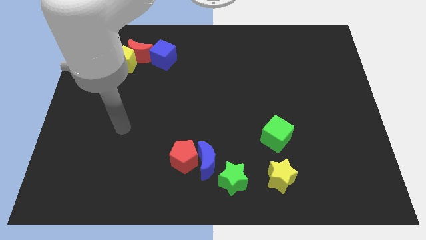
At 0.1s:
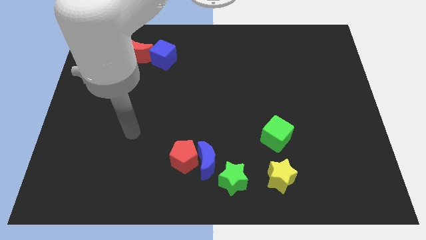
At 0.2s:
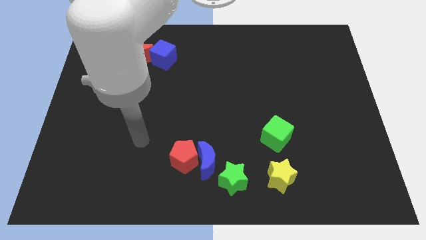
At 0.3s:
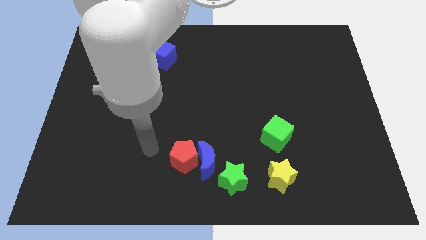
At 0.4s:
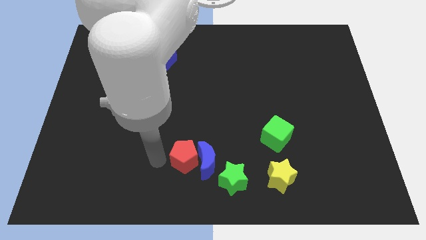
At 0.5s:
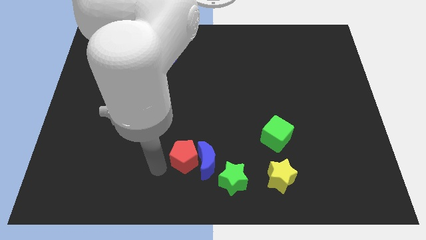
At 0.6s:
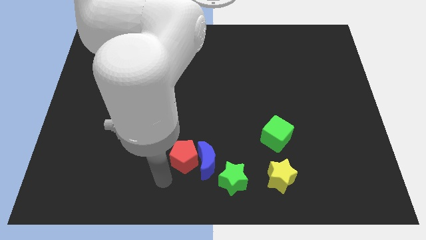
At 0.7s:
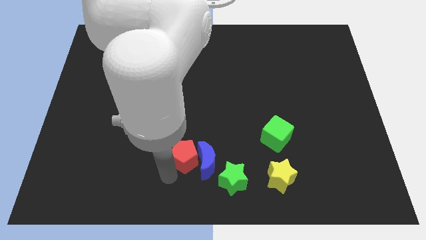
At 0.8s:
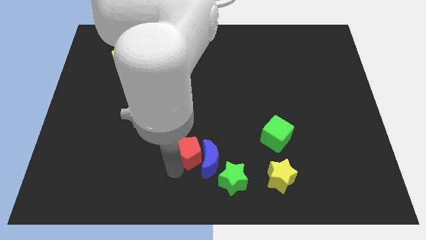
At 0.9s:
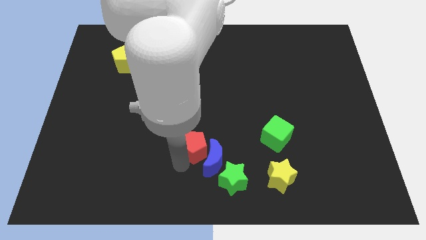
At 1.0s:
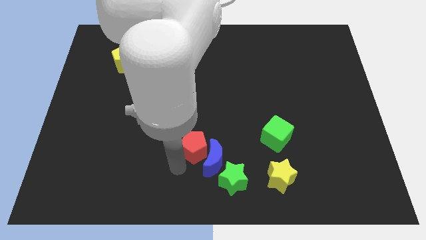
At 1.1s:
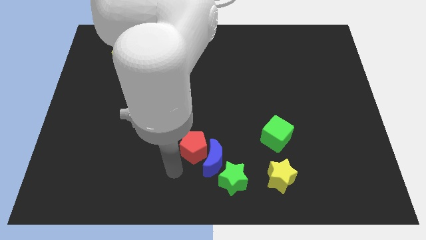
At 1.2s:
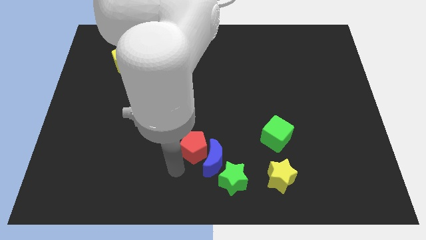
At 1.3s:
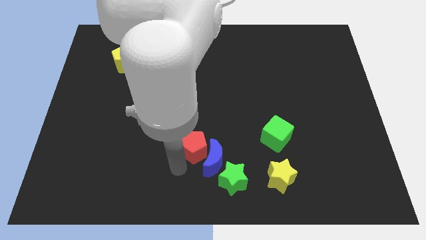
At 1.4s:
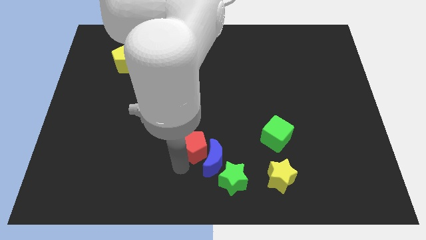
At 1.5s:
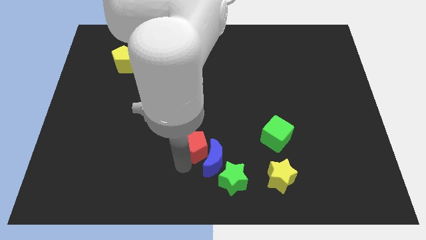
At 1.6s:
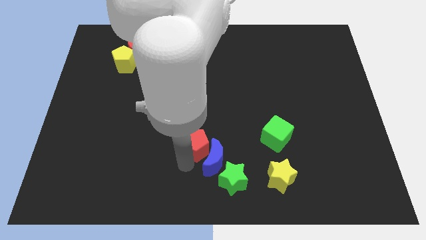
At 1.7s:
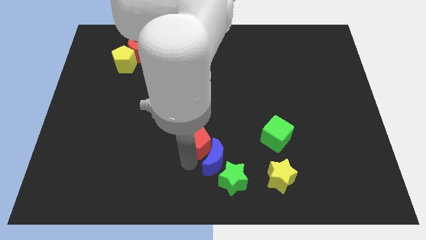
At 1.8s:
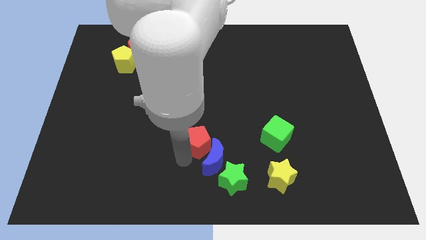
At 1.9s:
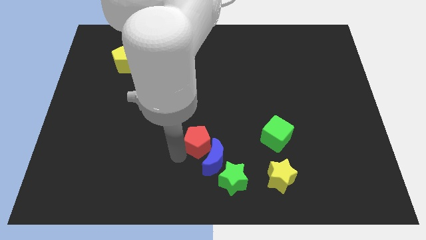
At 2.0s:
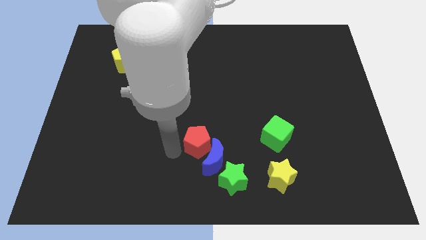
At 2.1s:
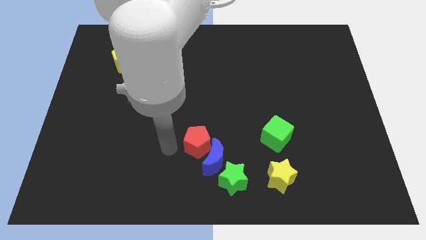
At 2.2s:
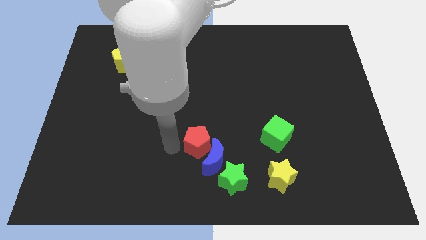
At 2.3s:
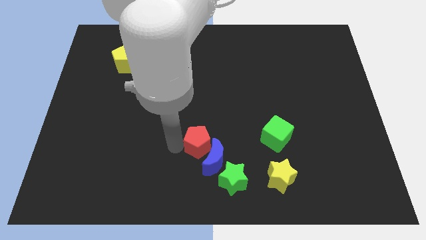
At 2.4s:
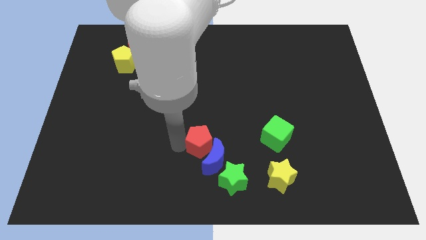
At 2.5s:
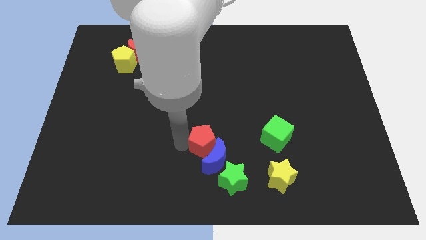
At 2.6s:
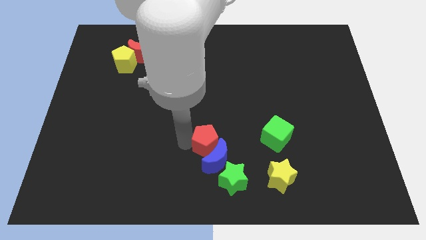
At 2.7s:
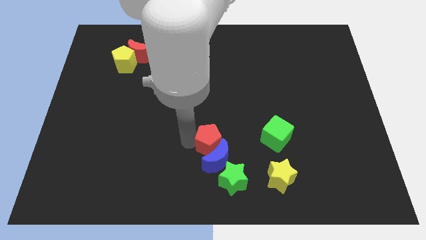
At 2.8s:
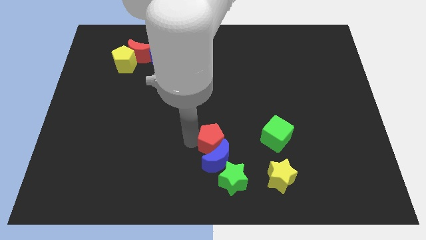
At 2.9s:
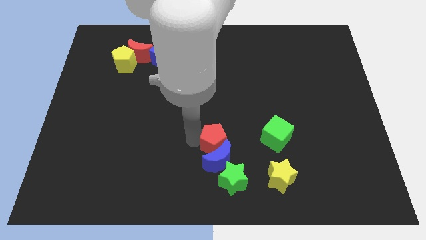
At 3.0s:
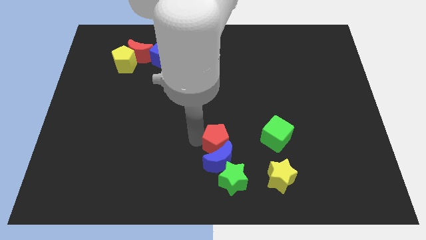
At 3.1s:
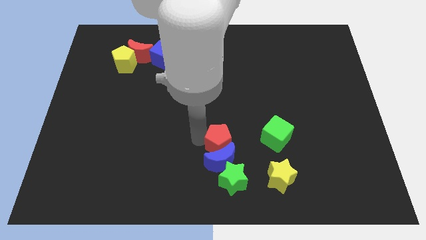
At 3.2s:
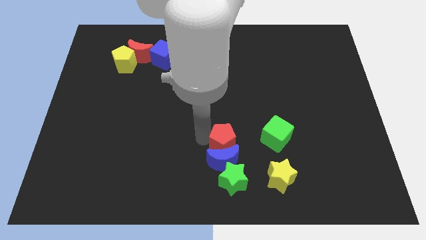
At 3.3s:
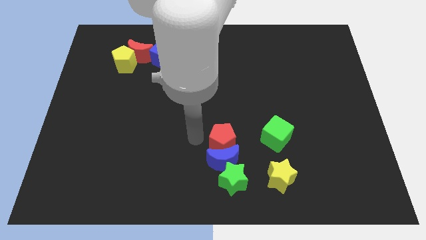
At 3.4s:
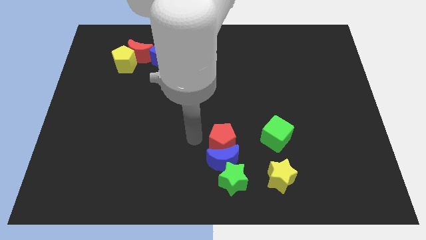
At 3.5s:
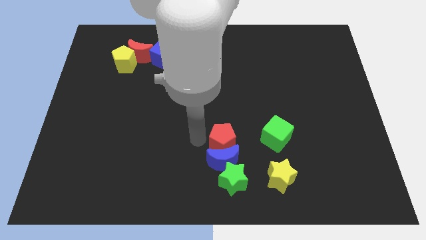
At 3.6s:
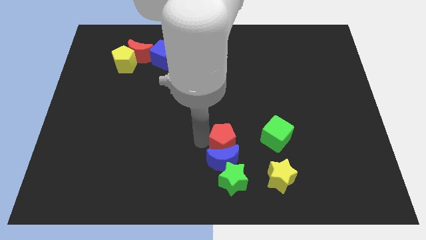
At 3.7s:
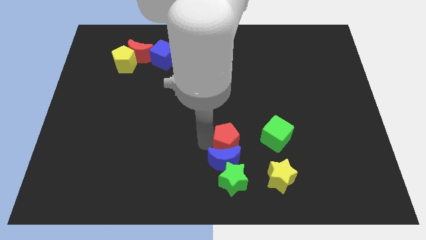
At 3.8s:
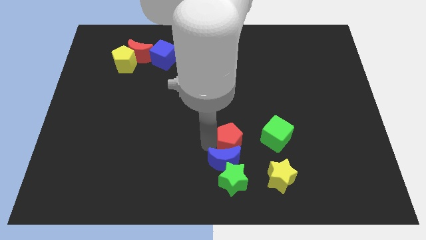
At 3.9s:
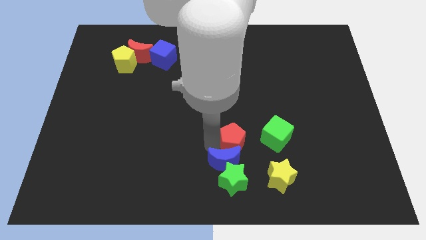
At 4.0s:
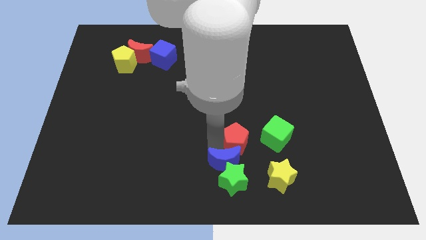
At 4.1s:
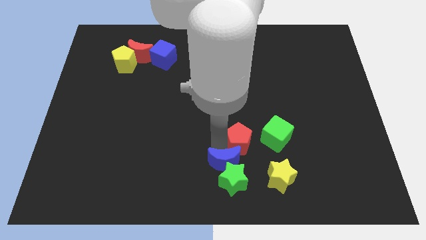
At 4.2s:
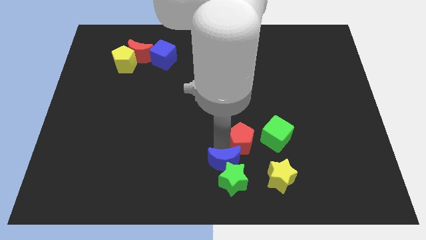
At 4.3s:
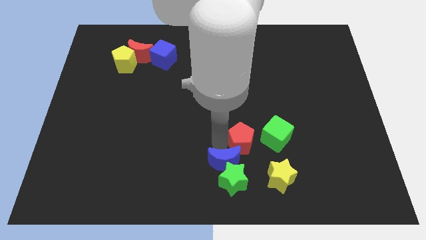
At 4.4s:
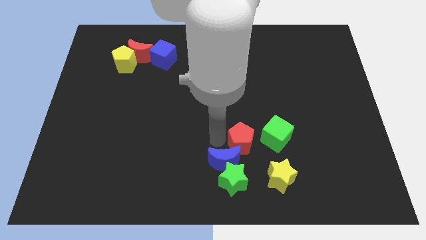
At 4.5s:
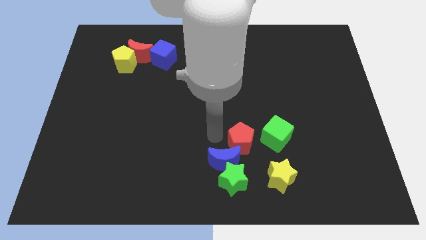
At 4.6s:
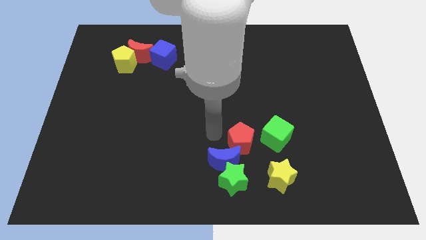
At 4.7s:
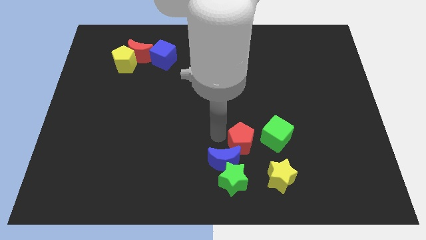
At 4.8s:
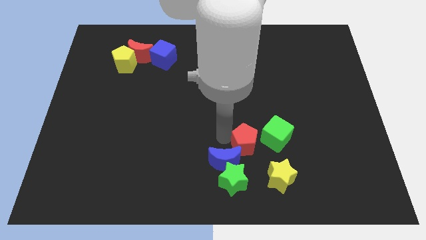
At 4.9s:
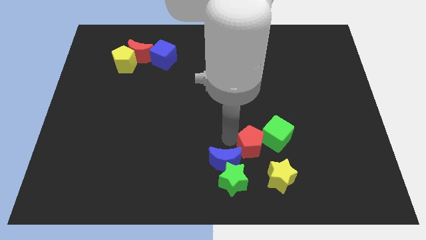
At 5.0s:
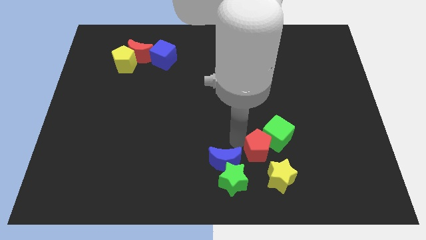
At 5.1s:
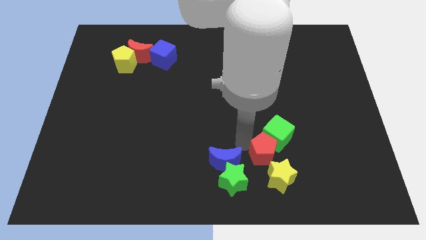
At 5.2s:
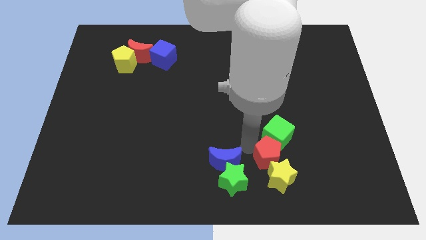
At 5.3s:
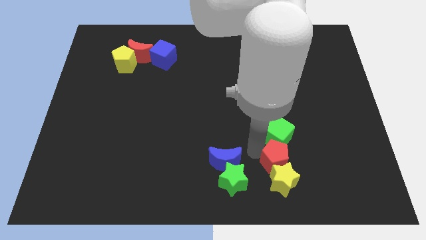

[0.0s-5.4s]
slide the red pentagon to the bottom right of the green cube

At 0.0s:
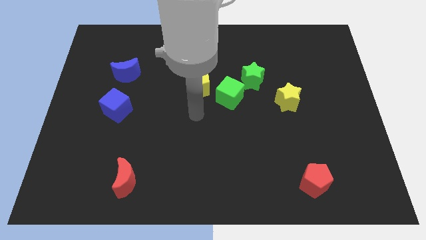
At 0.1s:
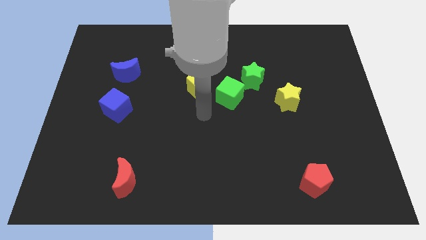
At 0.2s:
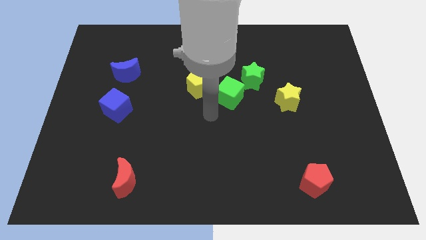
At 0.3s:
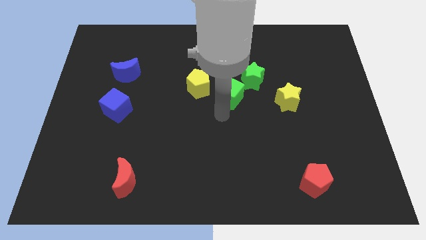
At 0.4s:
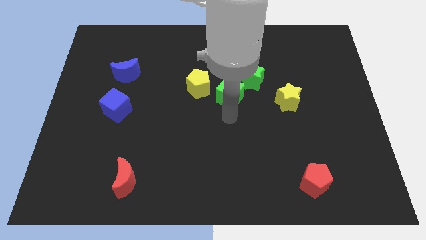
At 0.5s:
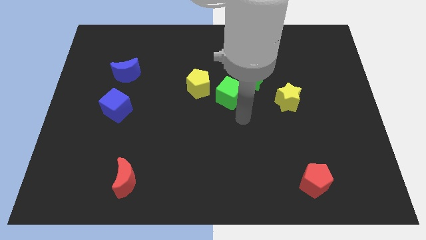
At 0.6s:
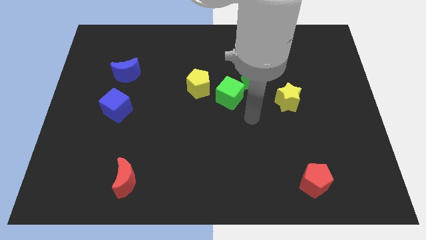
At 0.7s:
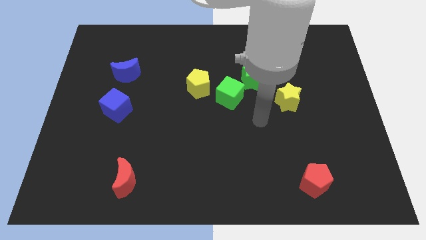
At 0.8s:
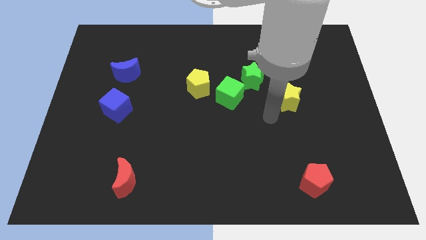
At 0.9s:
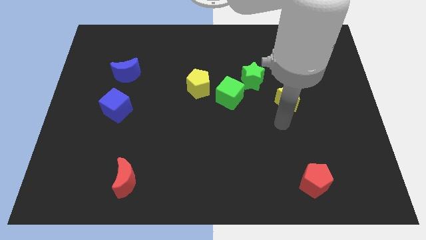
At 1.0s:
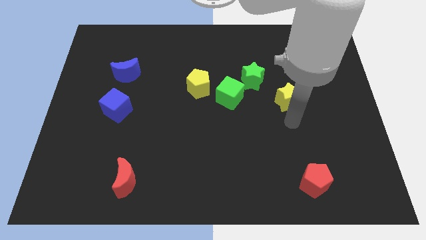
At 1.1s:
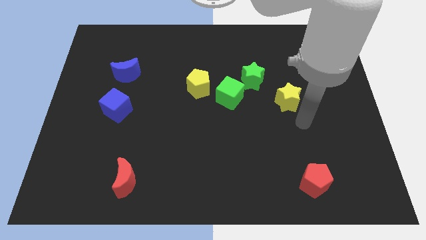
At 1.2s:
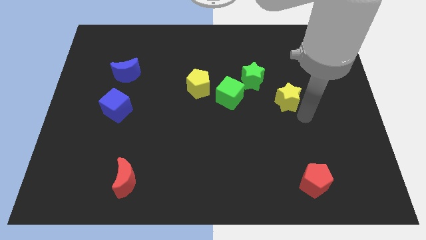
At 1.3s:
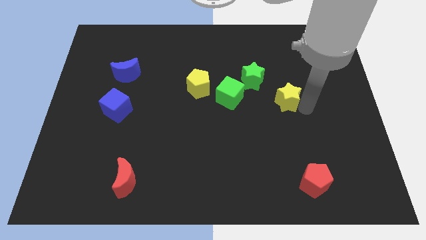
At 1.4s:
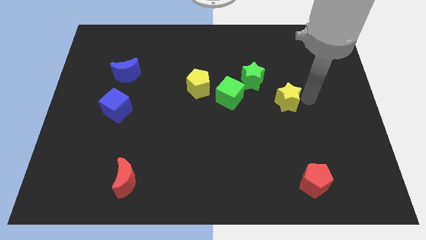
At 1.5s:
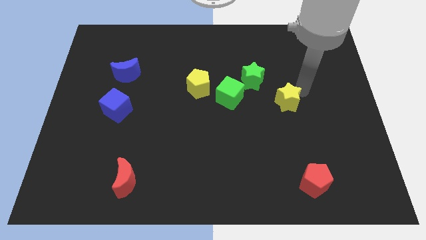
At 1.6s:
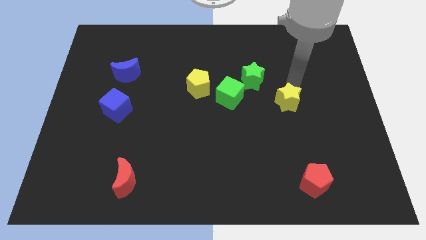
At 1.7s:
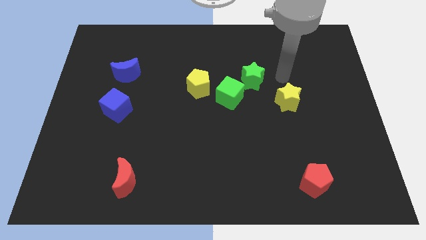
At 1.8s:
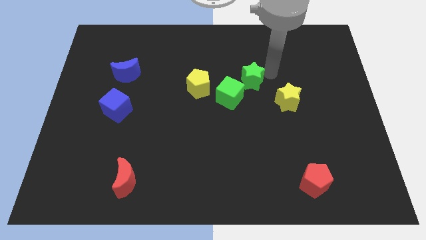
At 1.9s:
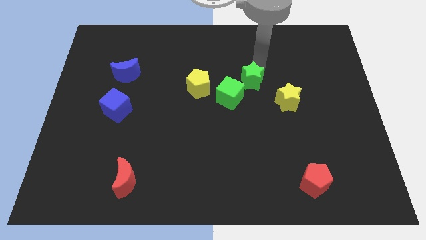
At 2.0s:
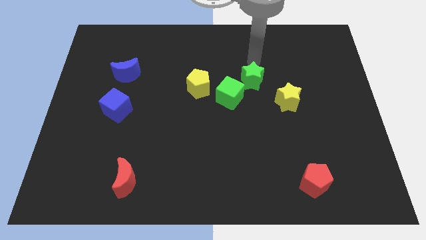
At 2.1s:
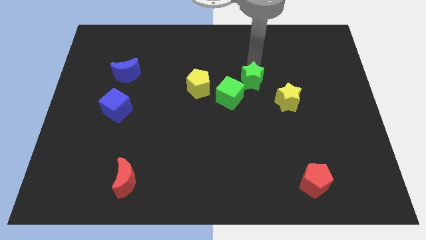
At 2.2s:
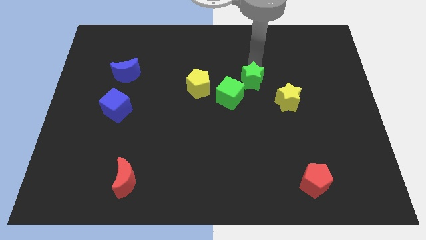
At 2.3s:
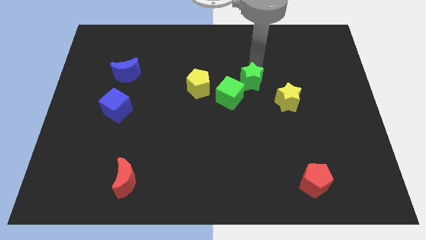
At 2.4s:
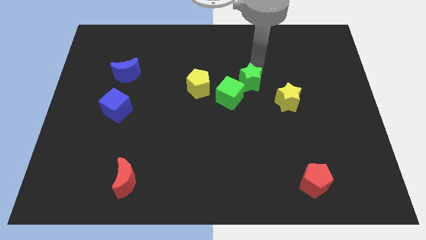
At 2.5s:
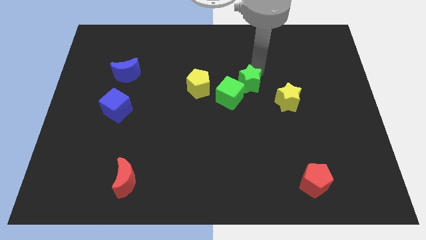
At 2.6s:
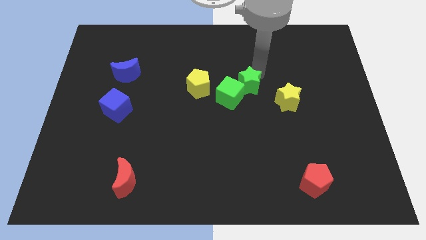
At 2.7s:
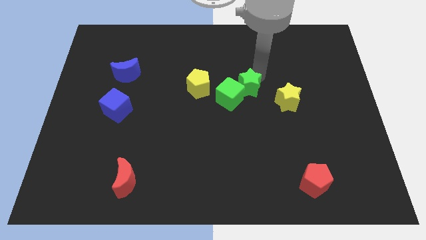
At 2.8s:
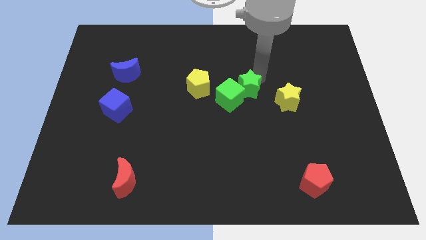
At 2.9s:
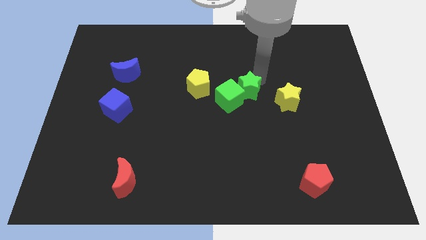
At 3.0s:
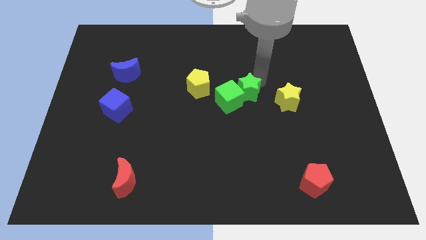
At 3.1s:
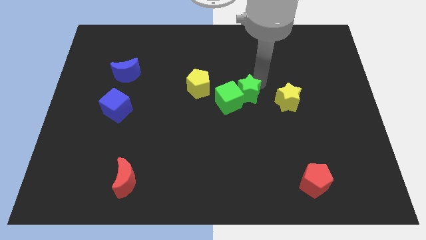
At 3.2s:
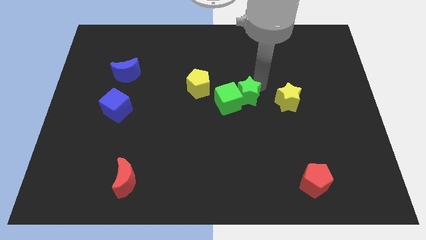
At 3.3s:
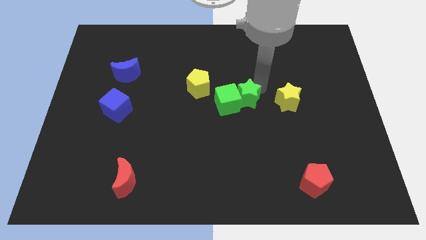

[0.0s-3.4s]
push the green star to the bottom right of the green cube
